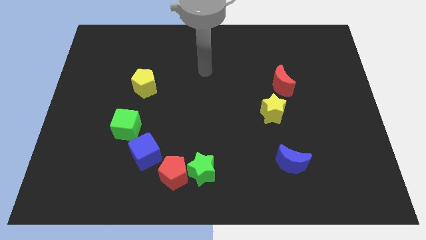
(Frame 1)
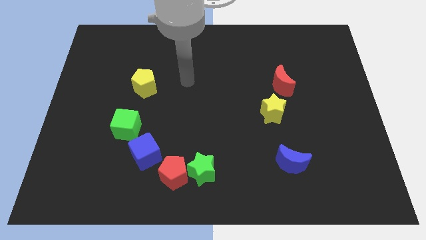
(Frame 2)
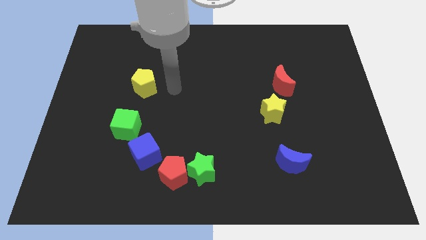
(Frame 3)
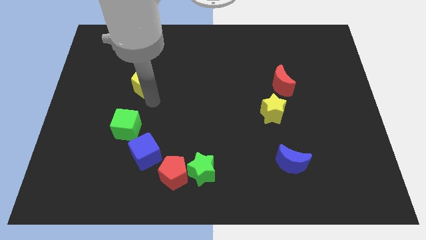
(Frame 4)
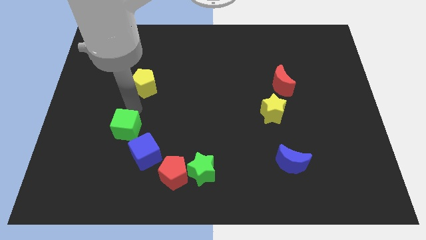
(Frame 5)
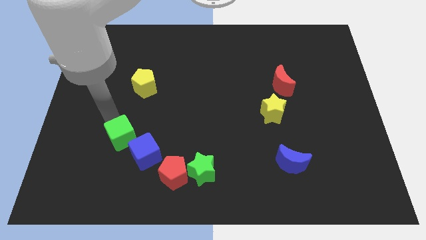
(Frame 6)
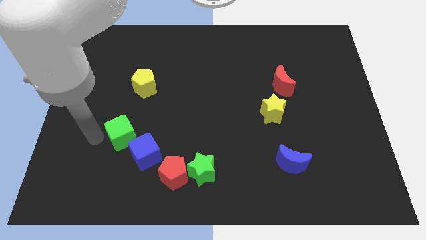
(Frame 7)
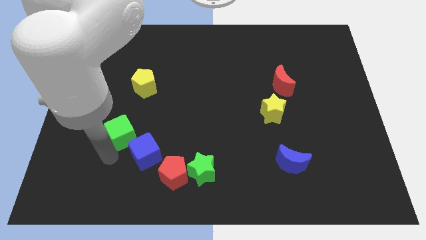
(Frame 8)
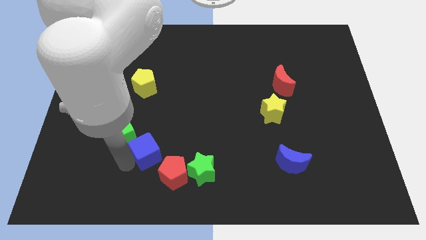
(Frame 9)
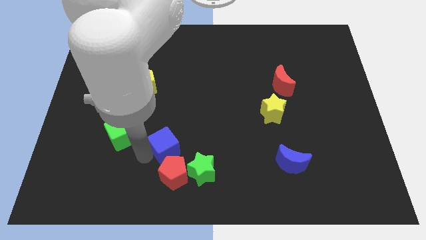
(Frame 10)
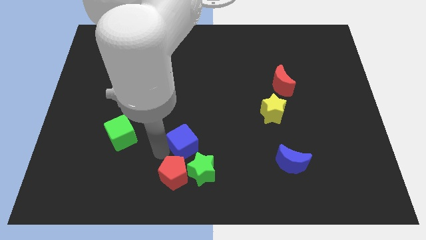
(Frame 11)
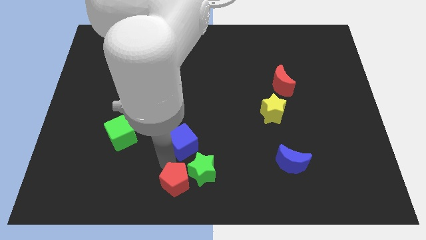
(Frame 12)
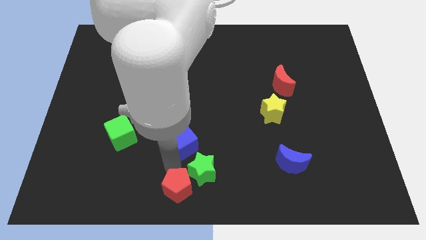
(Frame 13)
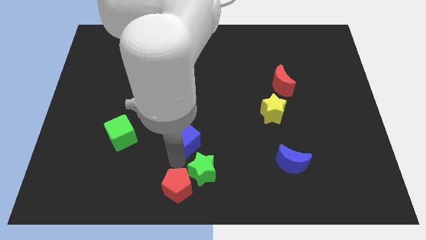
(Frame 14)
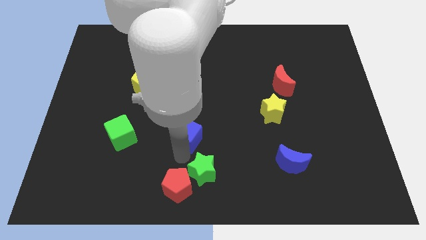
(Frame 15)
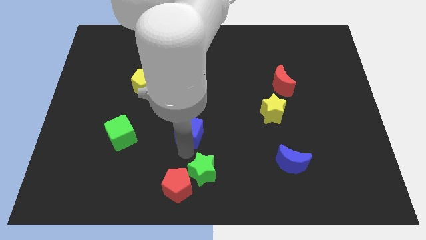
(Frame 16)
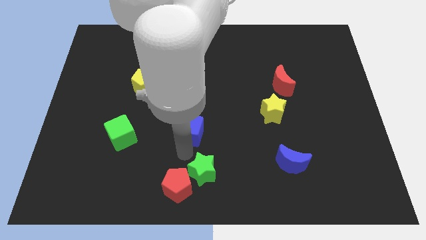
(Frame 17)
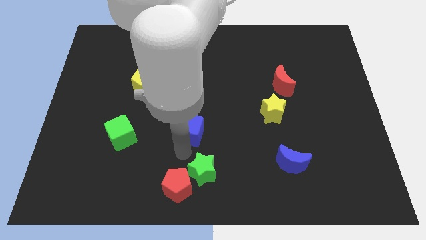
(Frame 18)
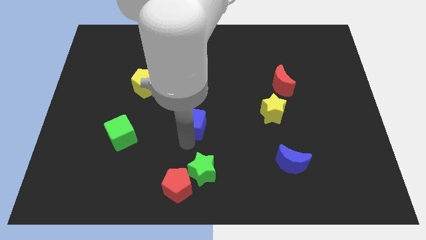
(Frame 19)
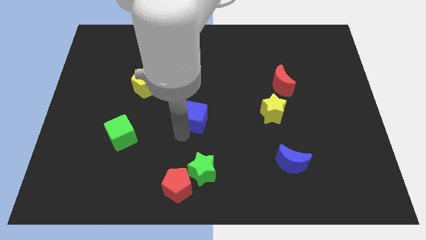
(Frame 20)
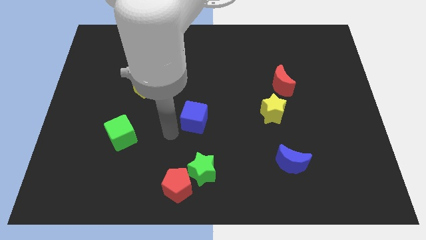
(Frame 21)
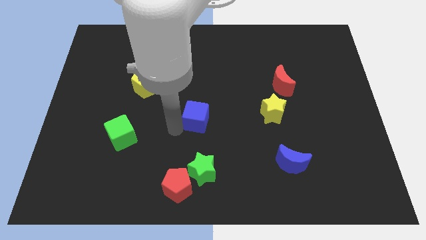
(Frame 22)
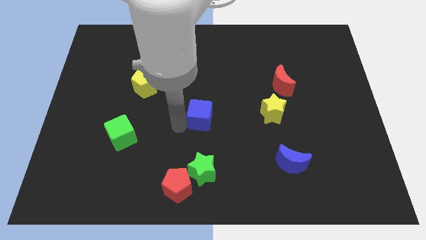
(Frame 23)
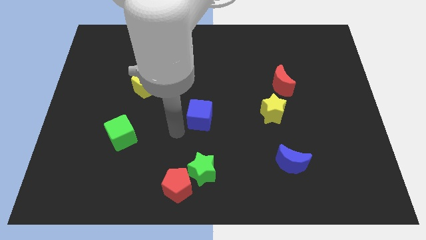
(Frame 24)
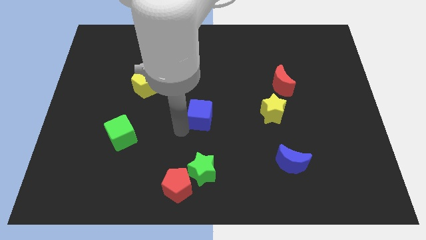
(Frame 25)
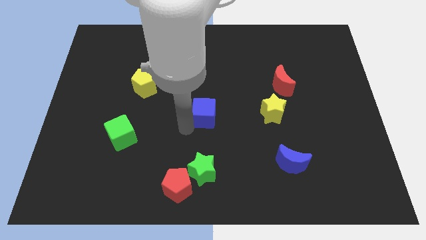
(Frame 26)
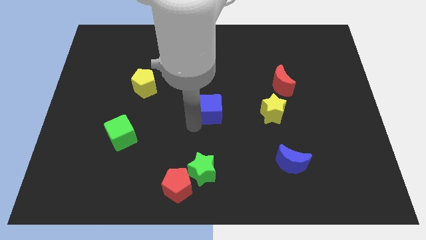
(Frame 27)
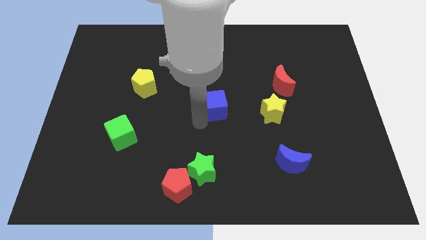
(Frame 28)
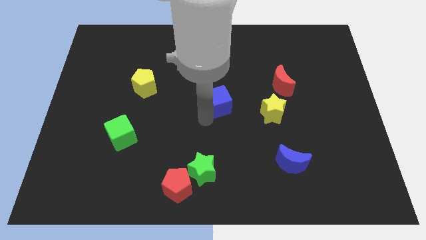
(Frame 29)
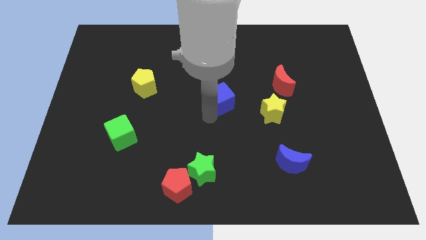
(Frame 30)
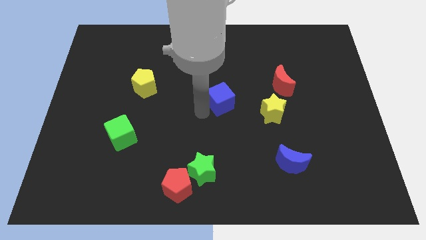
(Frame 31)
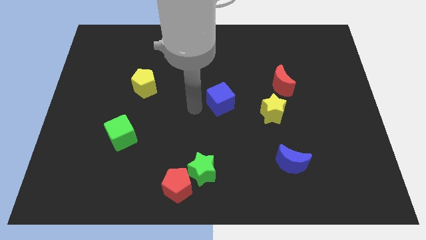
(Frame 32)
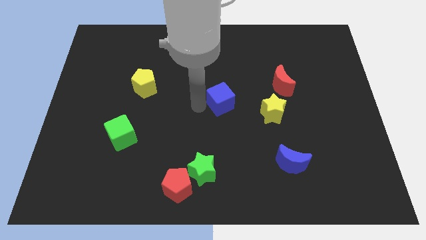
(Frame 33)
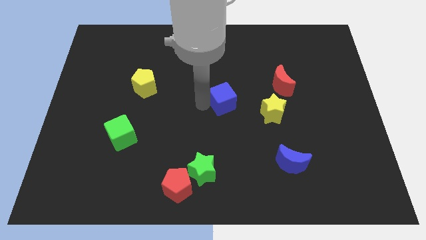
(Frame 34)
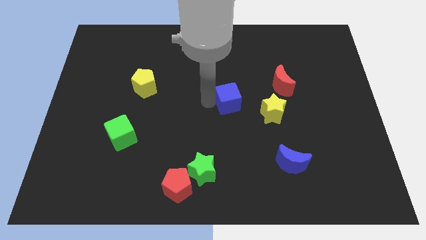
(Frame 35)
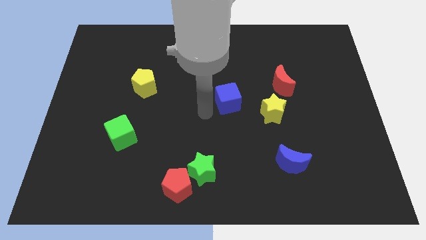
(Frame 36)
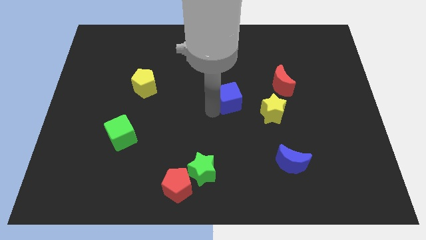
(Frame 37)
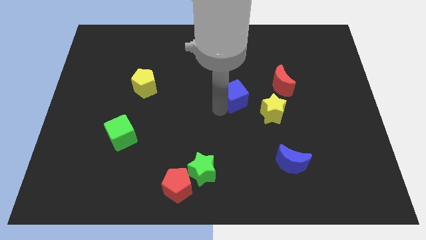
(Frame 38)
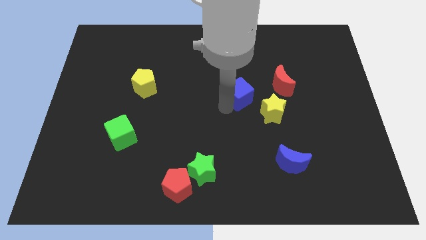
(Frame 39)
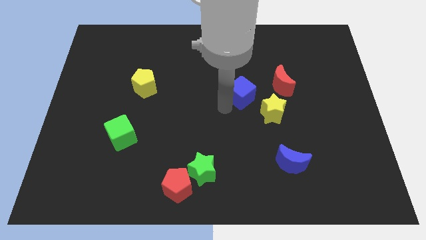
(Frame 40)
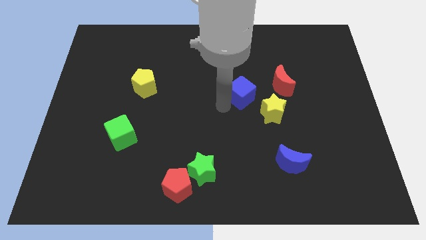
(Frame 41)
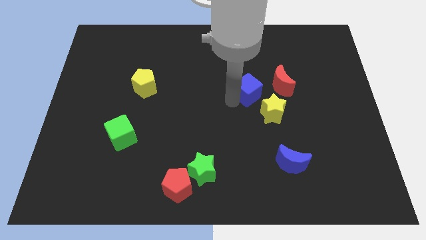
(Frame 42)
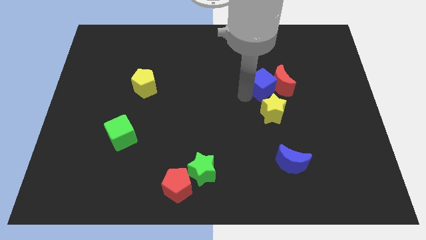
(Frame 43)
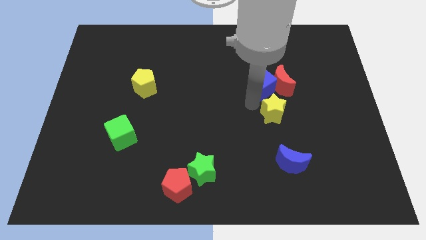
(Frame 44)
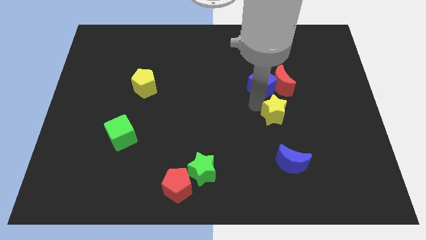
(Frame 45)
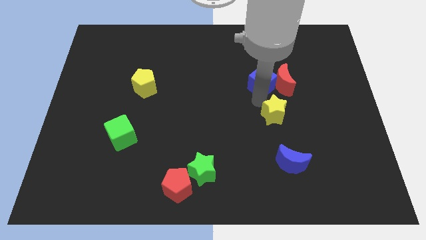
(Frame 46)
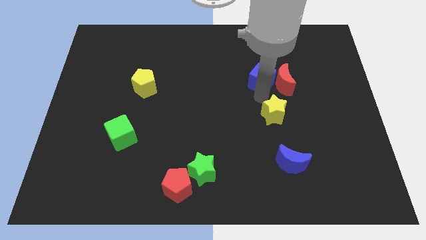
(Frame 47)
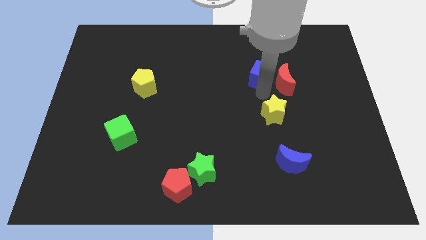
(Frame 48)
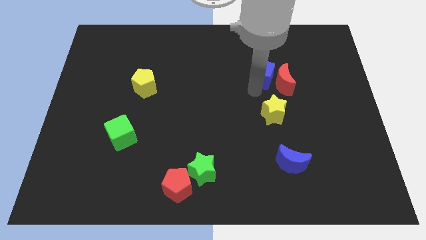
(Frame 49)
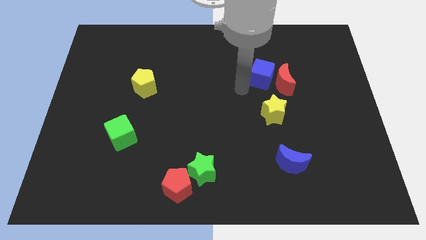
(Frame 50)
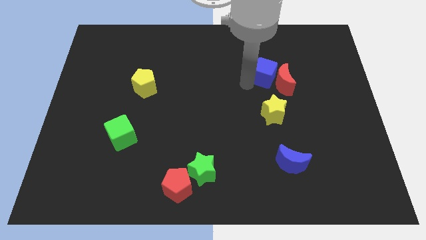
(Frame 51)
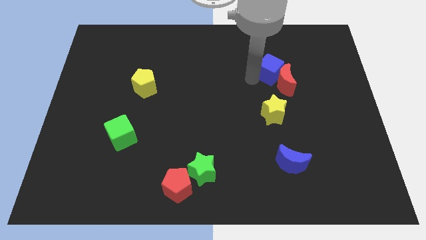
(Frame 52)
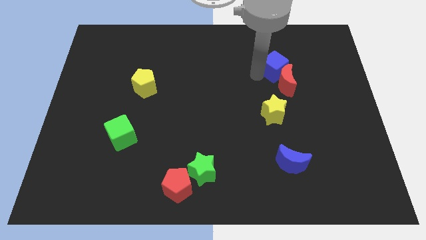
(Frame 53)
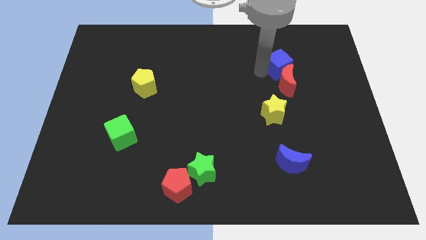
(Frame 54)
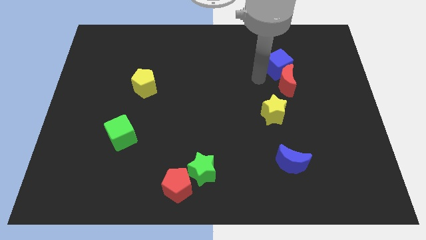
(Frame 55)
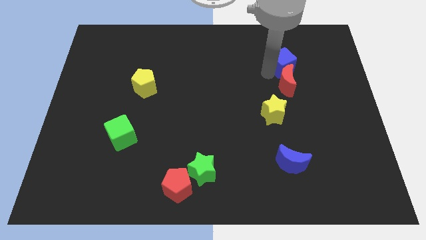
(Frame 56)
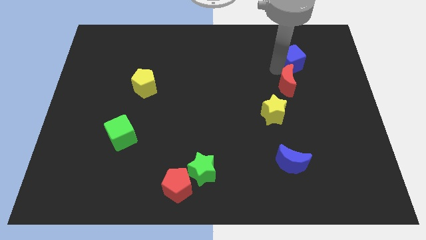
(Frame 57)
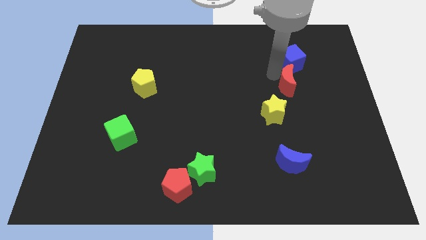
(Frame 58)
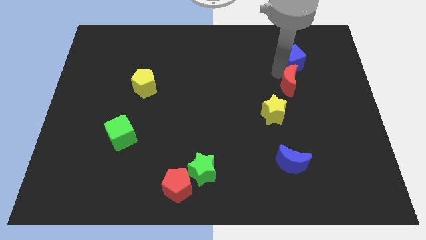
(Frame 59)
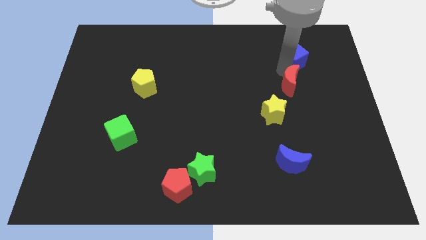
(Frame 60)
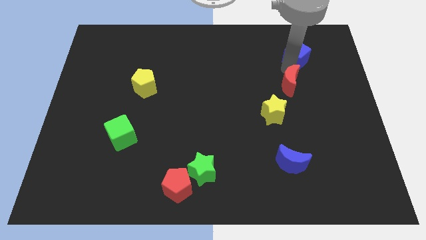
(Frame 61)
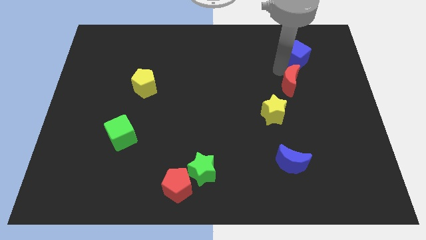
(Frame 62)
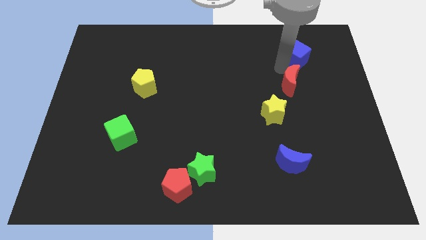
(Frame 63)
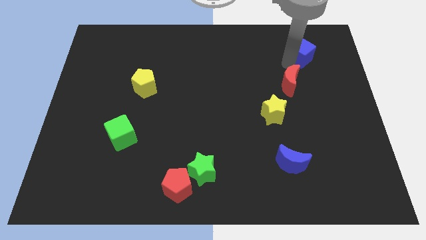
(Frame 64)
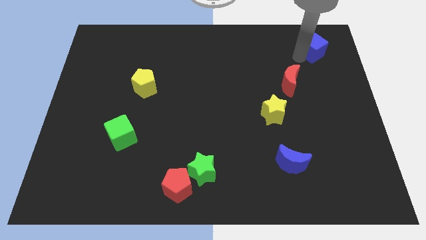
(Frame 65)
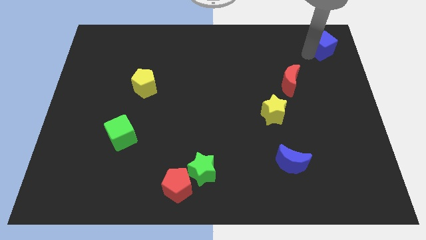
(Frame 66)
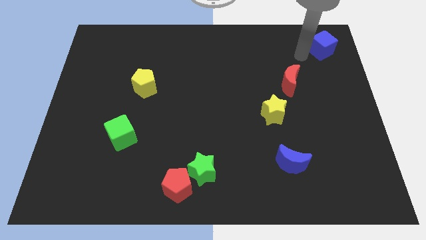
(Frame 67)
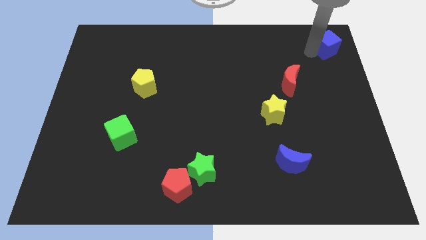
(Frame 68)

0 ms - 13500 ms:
slide the blue cube to the top right corner
